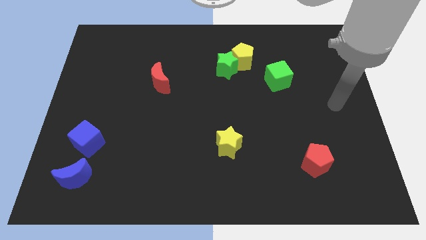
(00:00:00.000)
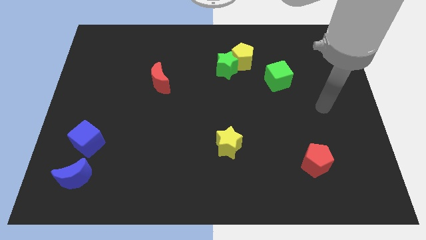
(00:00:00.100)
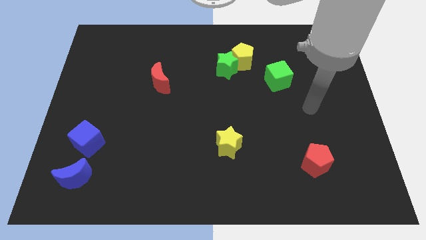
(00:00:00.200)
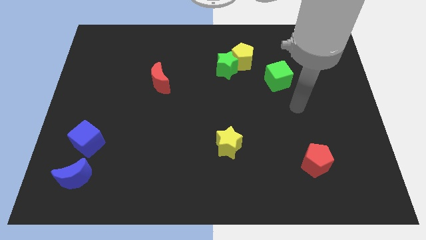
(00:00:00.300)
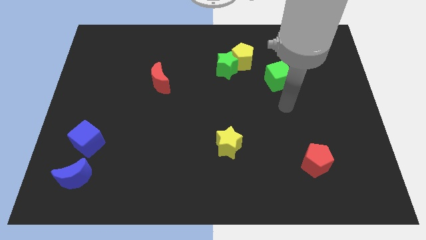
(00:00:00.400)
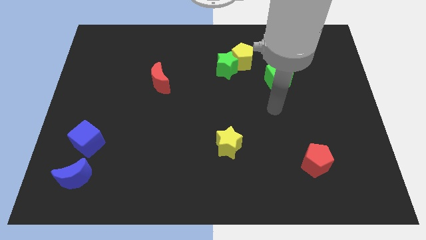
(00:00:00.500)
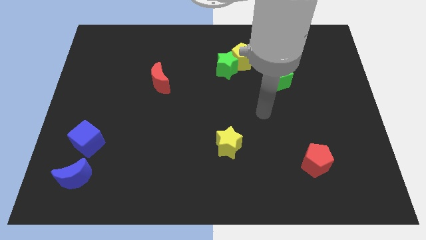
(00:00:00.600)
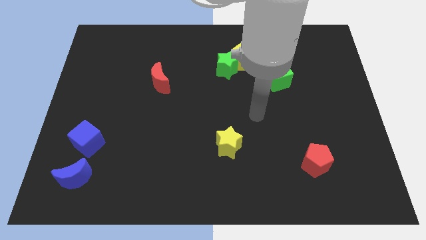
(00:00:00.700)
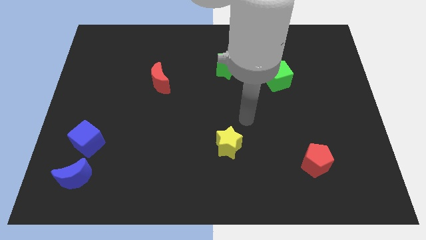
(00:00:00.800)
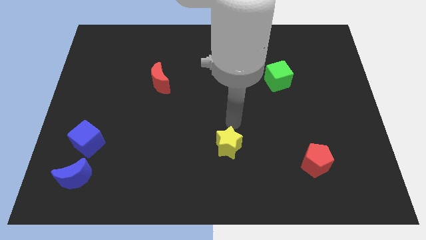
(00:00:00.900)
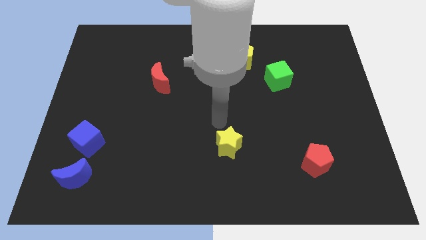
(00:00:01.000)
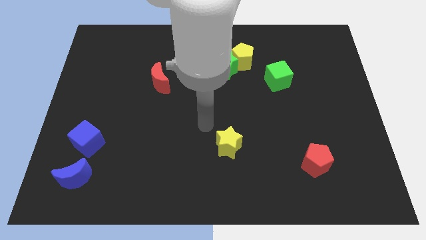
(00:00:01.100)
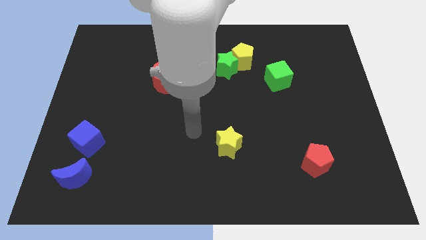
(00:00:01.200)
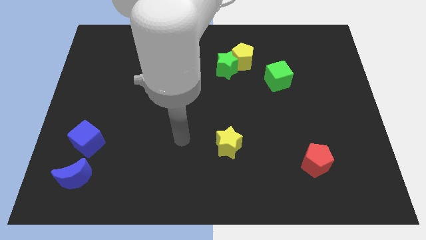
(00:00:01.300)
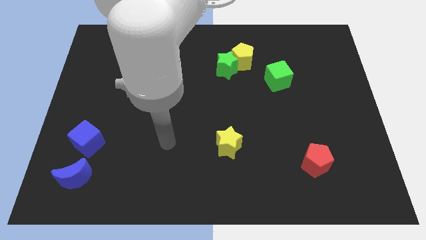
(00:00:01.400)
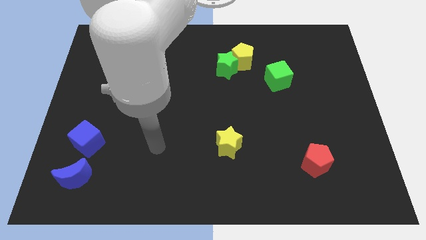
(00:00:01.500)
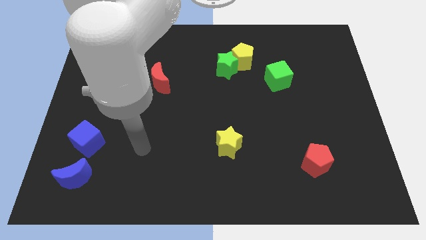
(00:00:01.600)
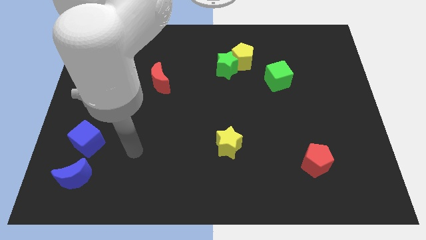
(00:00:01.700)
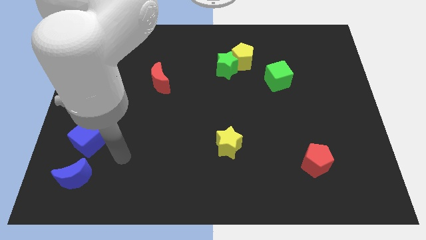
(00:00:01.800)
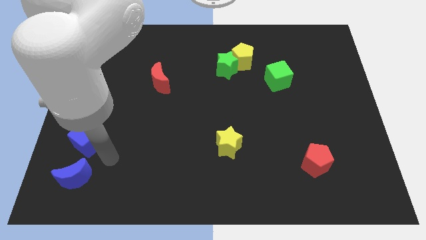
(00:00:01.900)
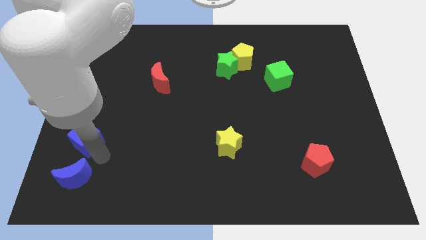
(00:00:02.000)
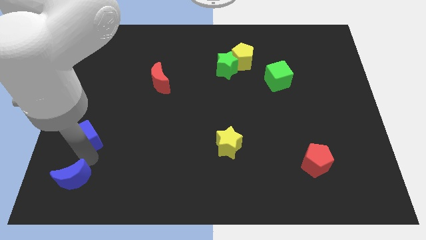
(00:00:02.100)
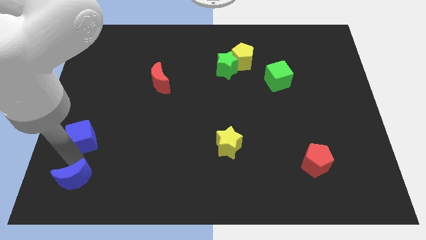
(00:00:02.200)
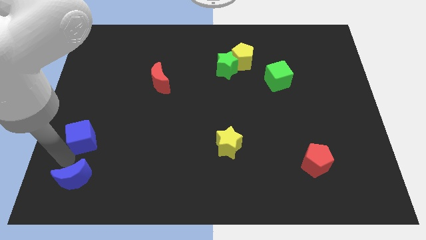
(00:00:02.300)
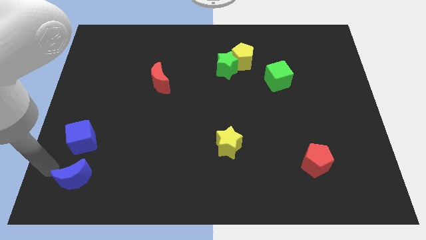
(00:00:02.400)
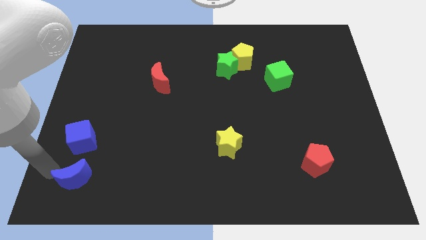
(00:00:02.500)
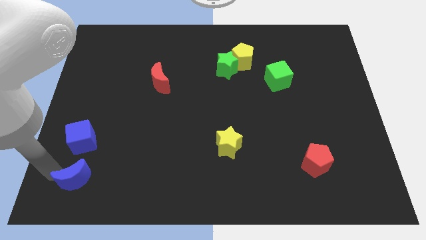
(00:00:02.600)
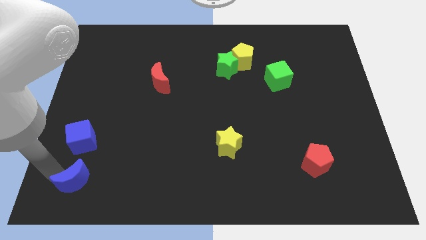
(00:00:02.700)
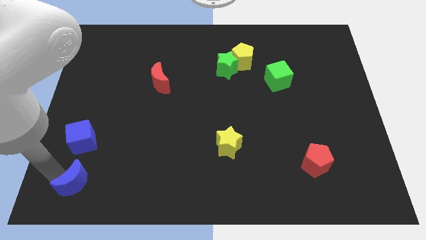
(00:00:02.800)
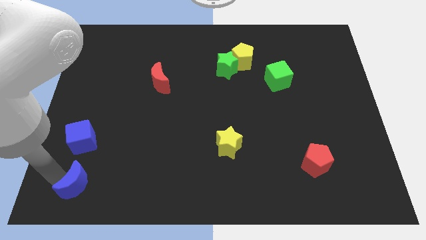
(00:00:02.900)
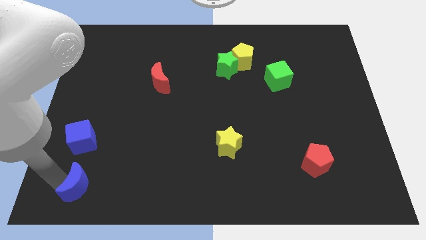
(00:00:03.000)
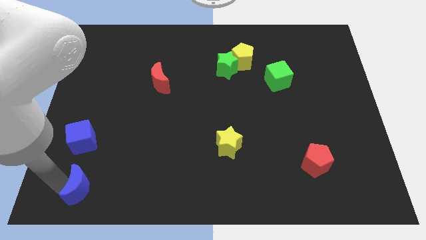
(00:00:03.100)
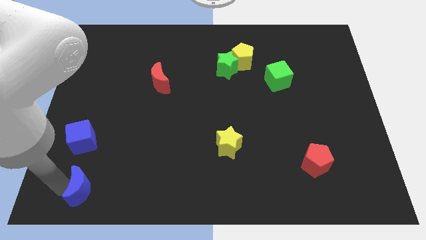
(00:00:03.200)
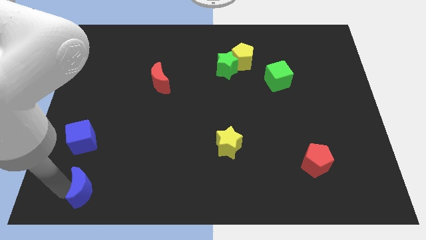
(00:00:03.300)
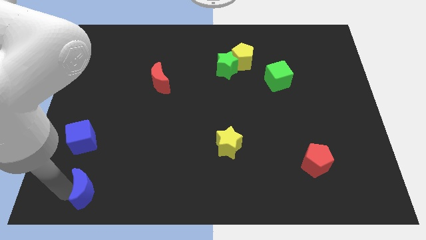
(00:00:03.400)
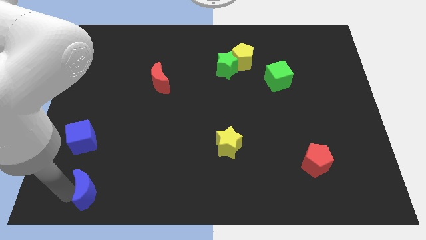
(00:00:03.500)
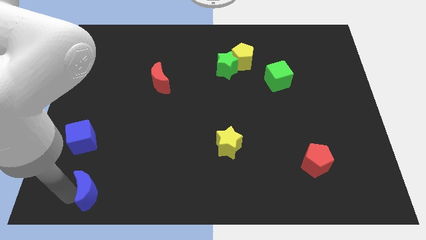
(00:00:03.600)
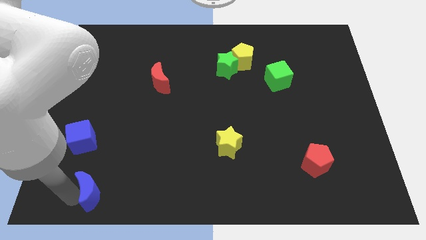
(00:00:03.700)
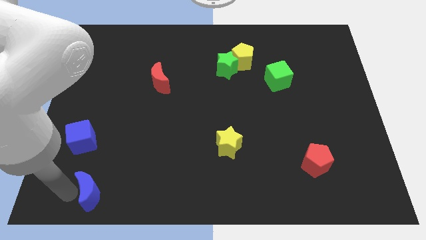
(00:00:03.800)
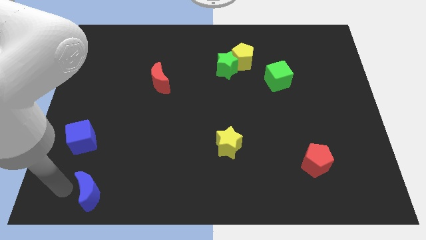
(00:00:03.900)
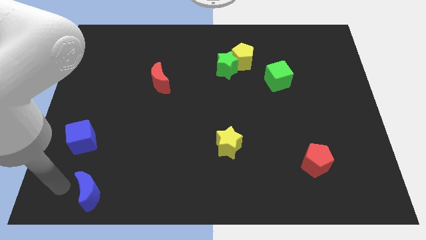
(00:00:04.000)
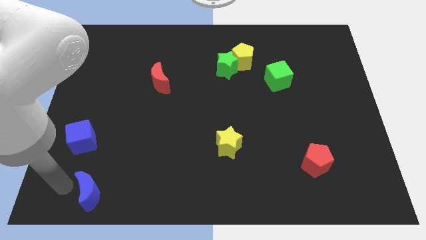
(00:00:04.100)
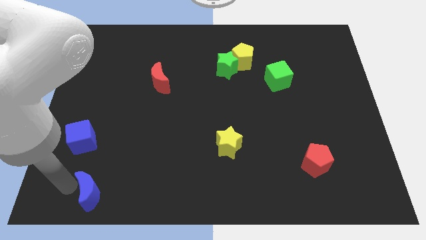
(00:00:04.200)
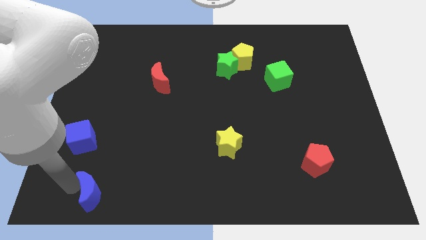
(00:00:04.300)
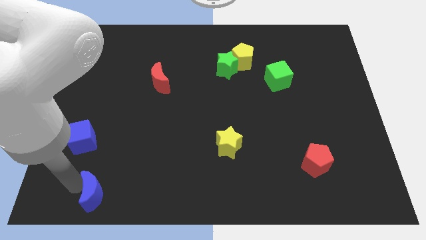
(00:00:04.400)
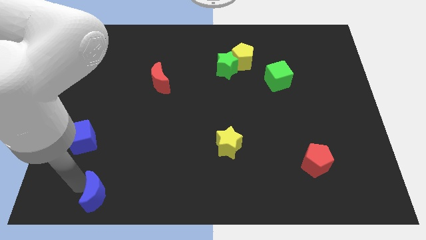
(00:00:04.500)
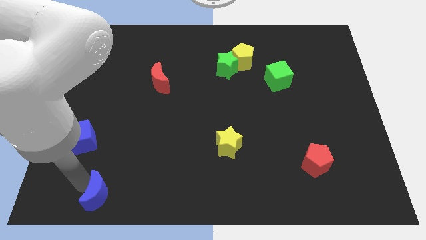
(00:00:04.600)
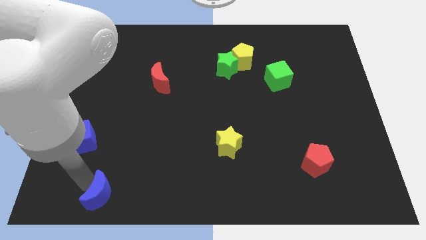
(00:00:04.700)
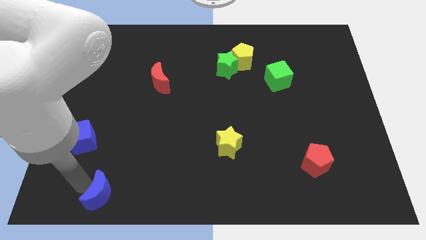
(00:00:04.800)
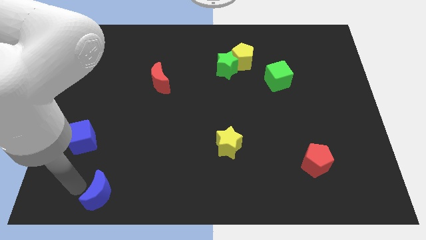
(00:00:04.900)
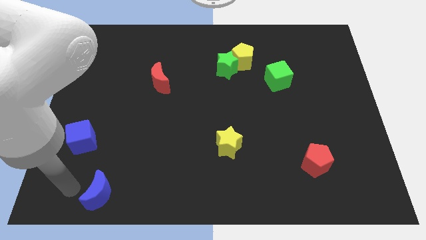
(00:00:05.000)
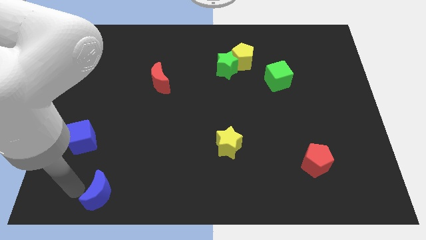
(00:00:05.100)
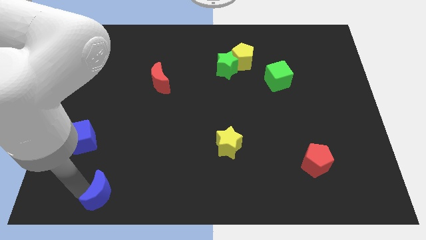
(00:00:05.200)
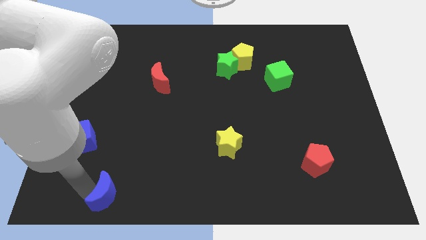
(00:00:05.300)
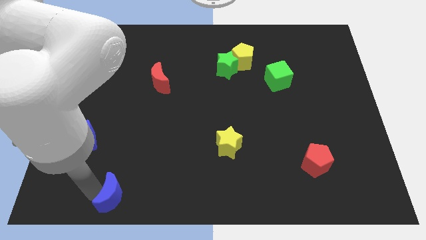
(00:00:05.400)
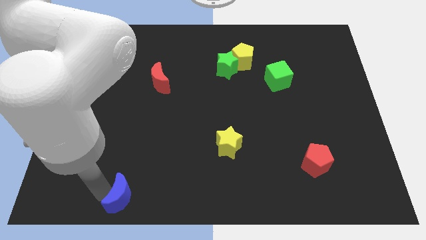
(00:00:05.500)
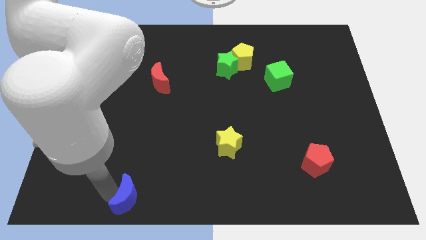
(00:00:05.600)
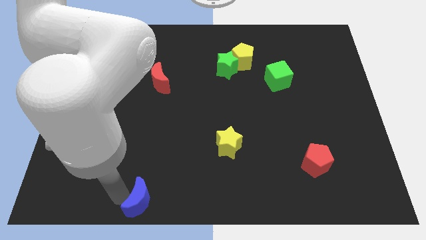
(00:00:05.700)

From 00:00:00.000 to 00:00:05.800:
slide the blue moon to the bottom side

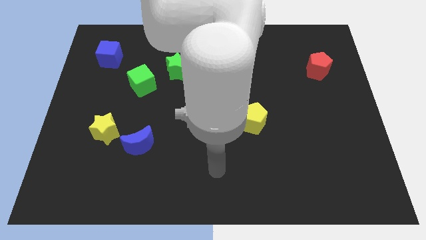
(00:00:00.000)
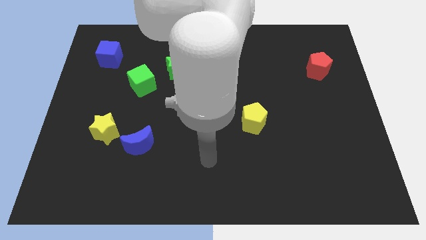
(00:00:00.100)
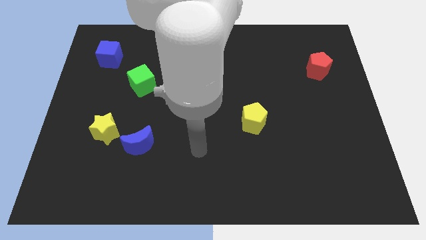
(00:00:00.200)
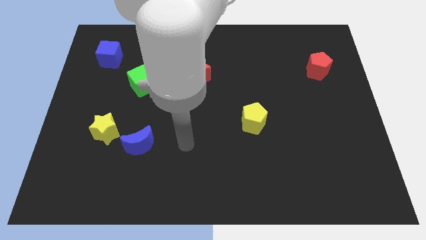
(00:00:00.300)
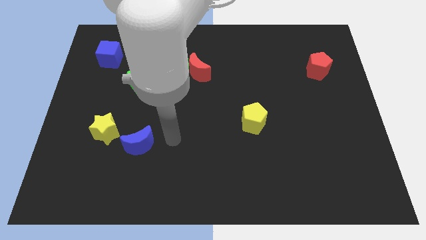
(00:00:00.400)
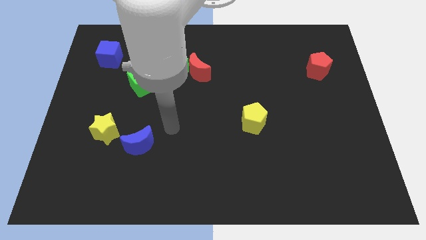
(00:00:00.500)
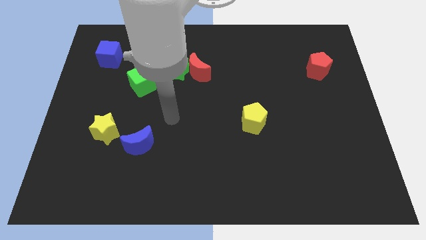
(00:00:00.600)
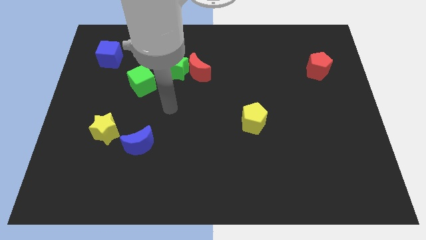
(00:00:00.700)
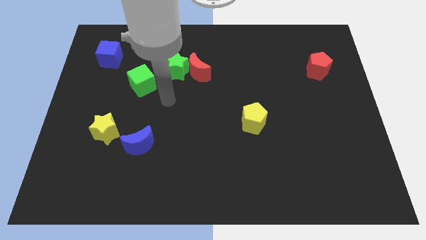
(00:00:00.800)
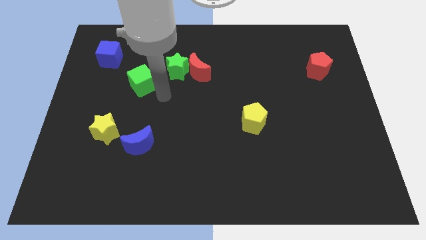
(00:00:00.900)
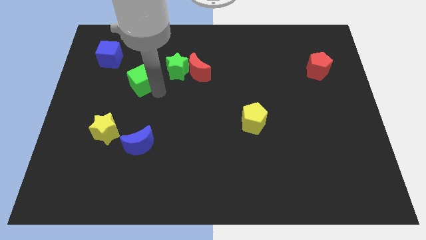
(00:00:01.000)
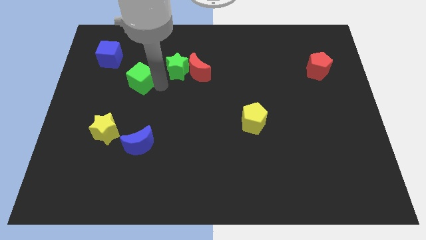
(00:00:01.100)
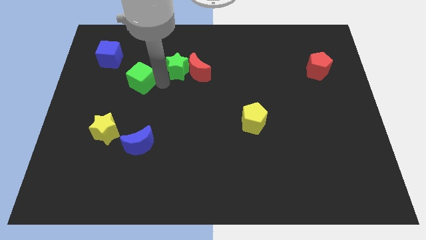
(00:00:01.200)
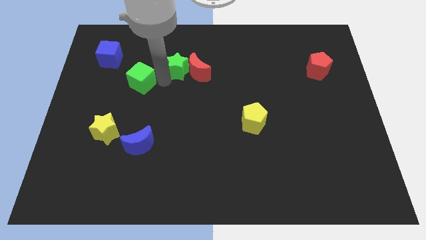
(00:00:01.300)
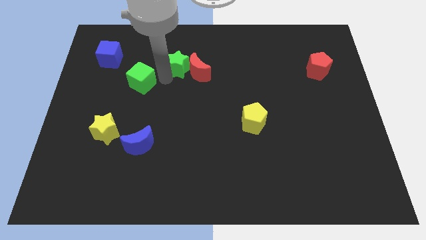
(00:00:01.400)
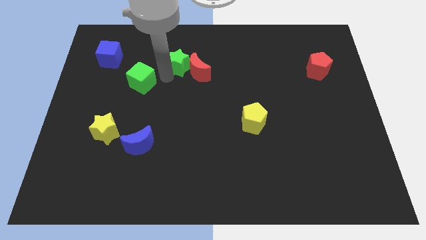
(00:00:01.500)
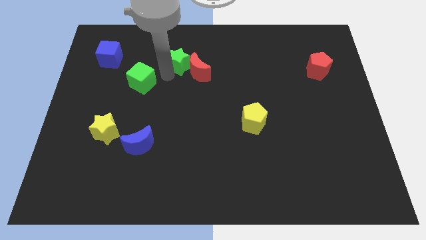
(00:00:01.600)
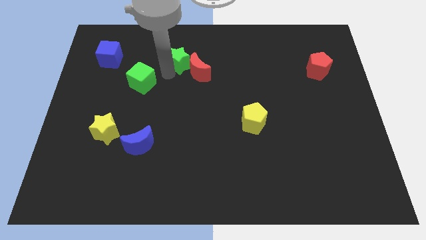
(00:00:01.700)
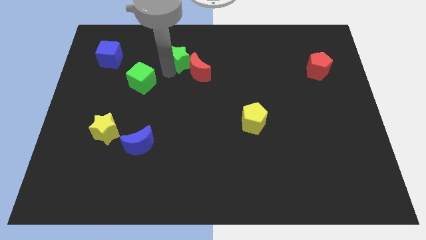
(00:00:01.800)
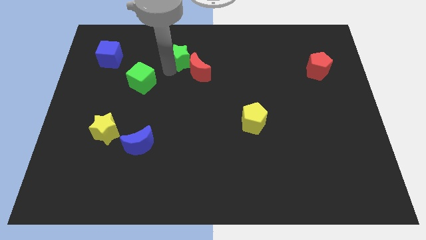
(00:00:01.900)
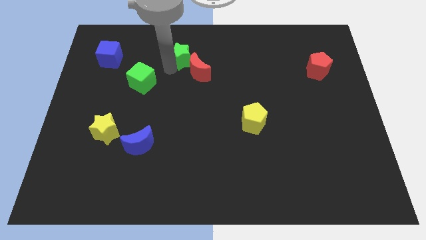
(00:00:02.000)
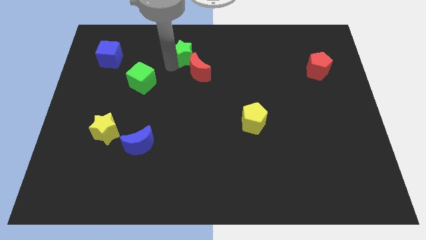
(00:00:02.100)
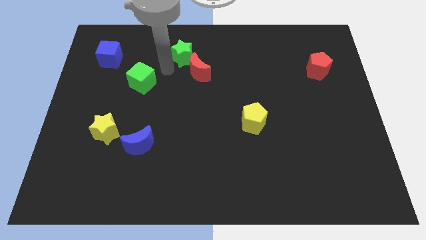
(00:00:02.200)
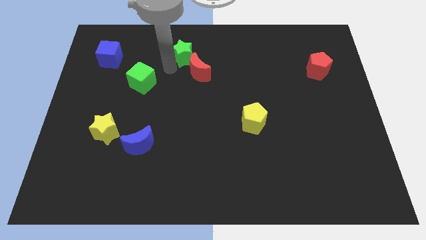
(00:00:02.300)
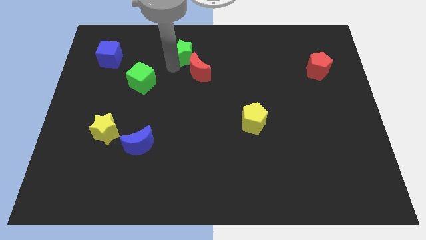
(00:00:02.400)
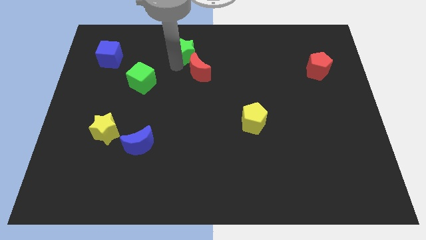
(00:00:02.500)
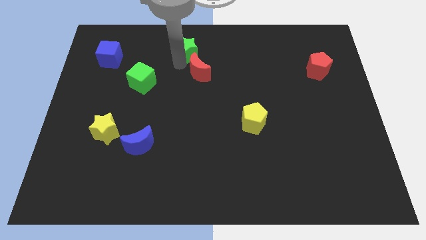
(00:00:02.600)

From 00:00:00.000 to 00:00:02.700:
push the green star to the top side
